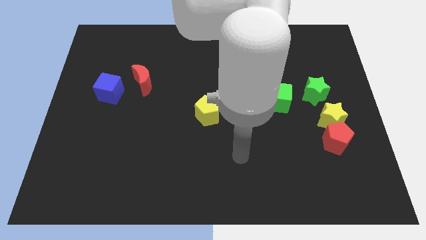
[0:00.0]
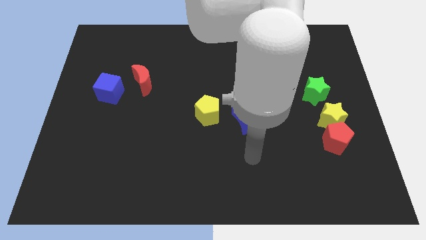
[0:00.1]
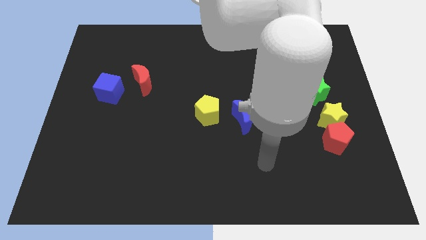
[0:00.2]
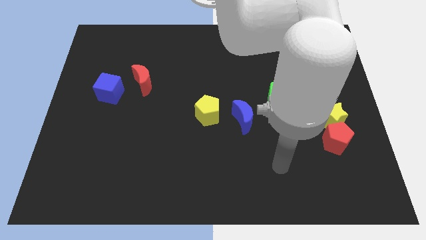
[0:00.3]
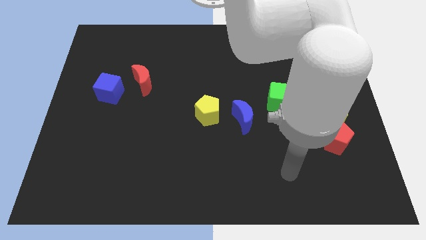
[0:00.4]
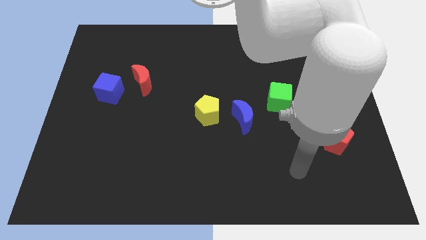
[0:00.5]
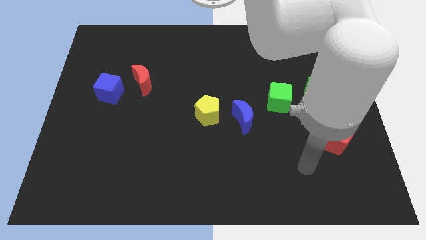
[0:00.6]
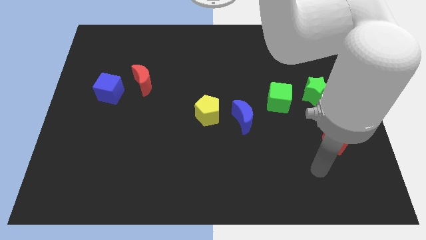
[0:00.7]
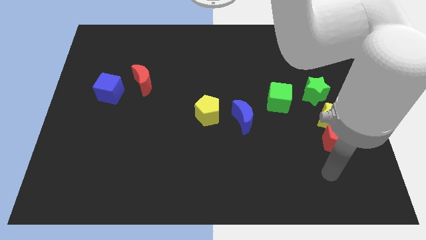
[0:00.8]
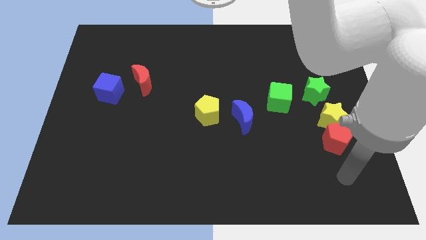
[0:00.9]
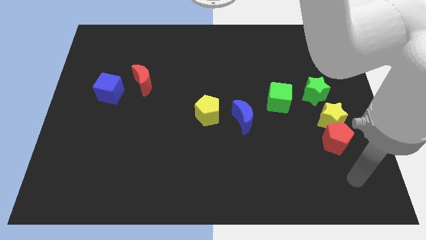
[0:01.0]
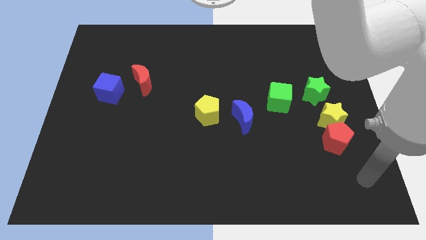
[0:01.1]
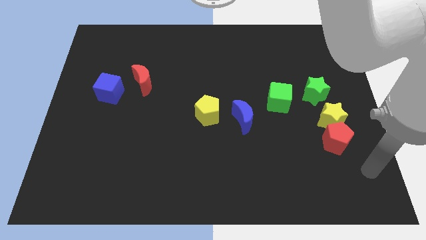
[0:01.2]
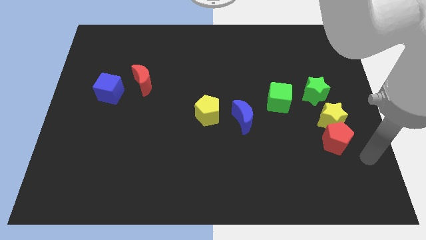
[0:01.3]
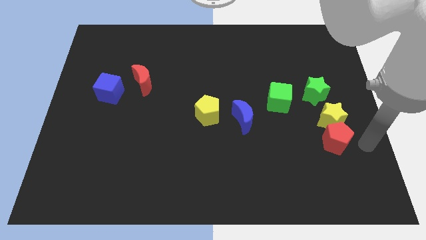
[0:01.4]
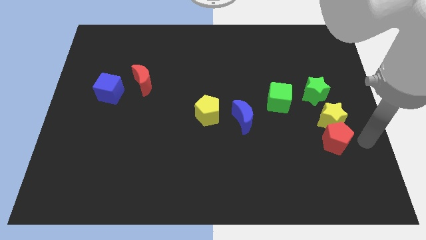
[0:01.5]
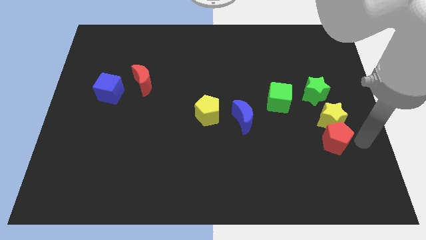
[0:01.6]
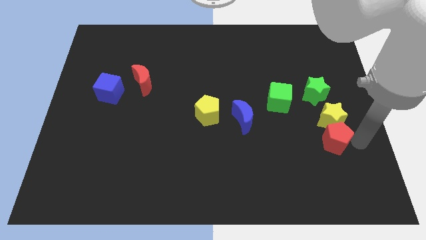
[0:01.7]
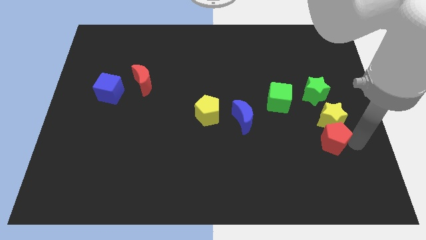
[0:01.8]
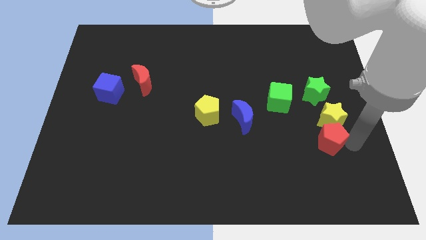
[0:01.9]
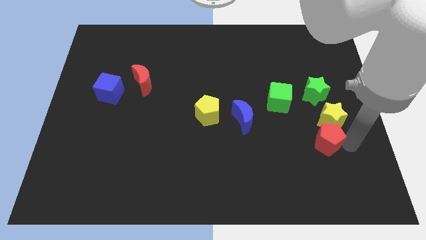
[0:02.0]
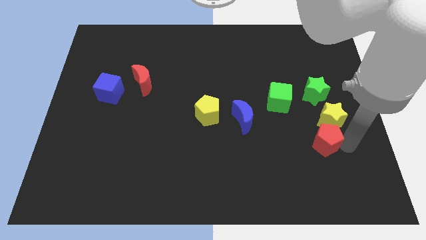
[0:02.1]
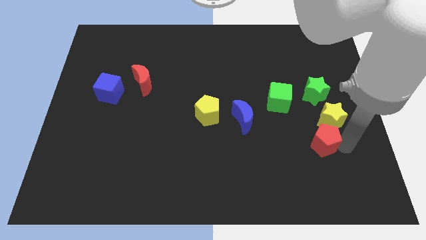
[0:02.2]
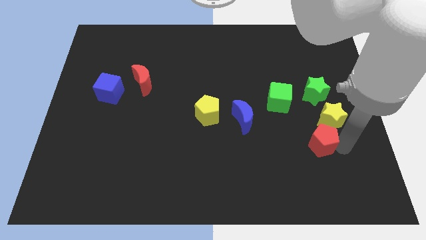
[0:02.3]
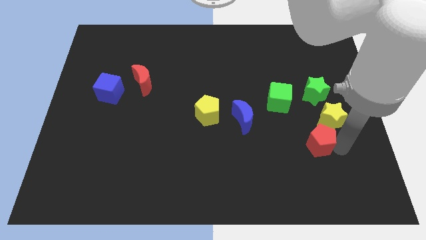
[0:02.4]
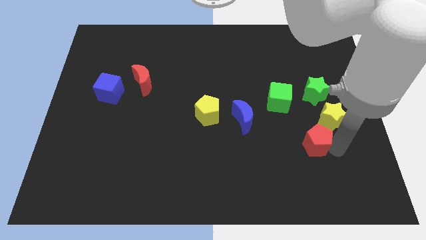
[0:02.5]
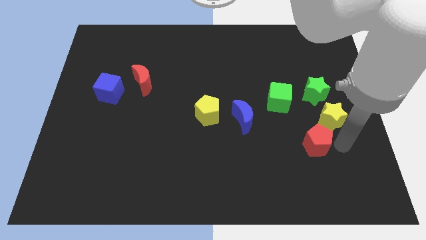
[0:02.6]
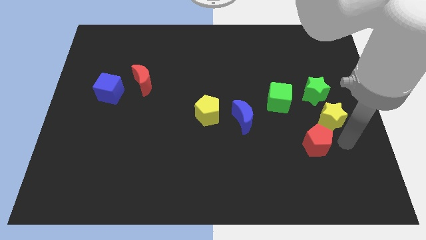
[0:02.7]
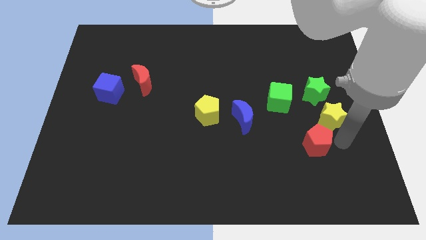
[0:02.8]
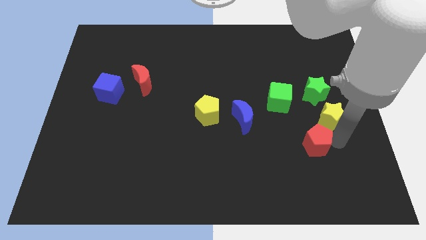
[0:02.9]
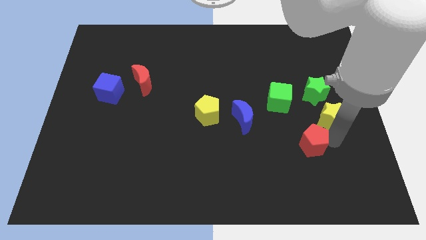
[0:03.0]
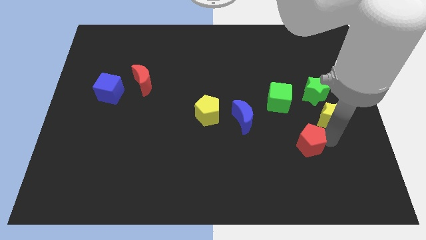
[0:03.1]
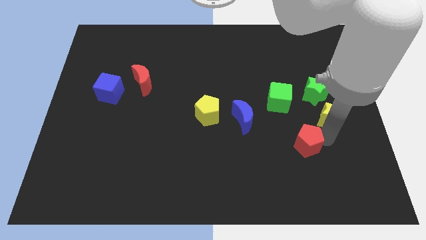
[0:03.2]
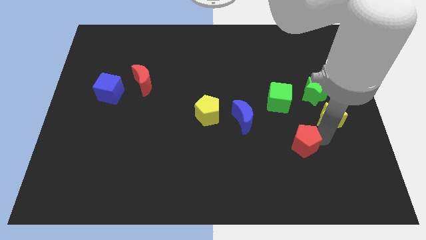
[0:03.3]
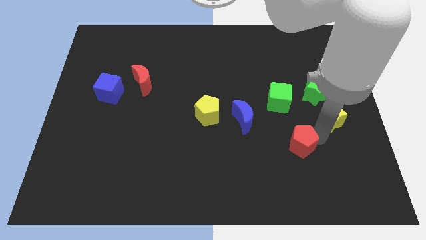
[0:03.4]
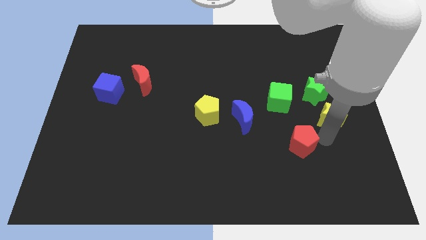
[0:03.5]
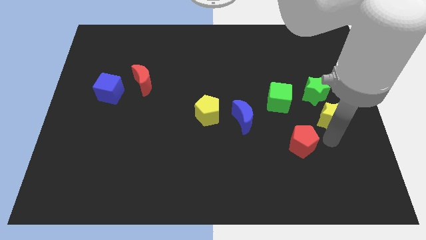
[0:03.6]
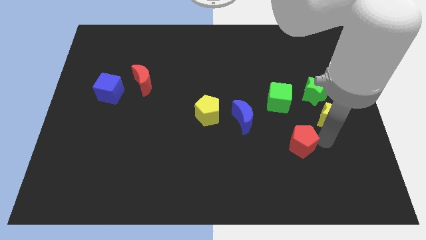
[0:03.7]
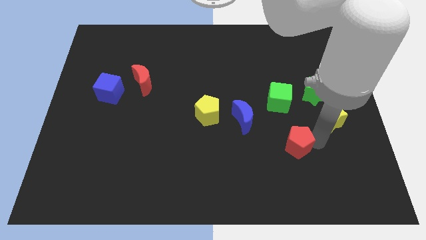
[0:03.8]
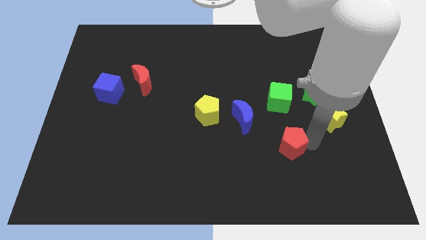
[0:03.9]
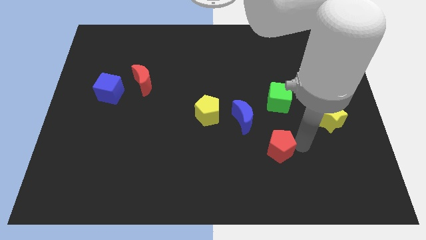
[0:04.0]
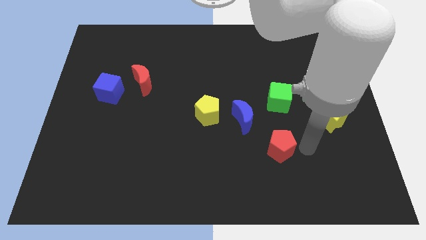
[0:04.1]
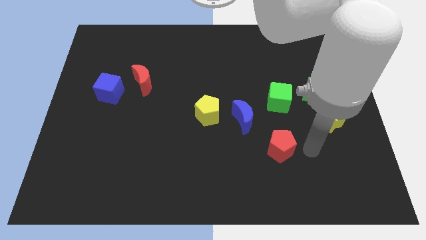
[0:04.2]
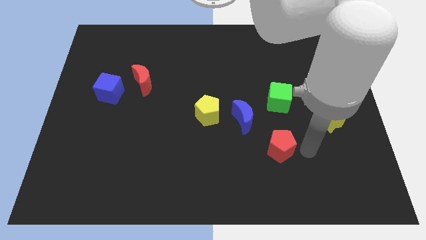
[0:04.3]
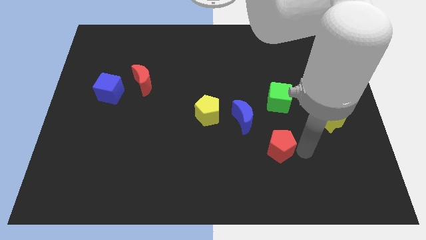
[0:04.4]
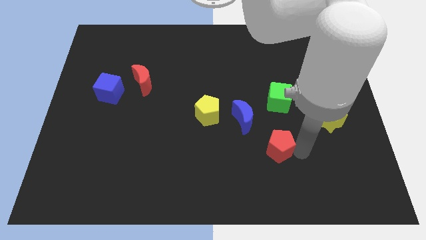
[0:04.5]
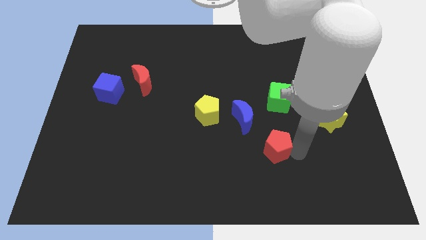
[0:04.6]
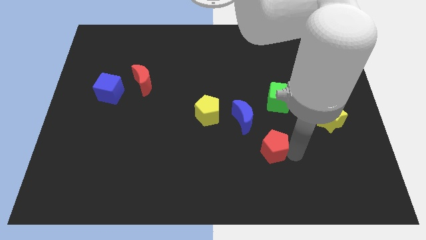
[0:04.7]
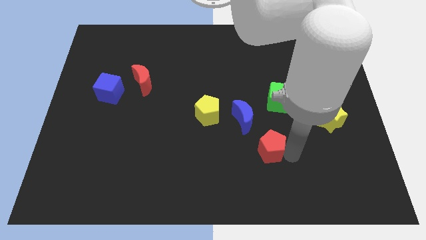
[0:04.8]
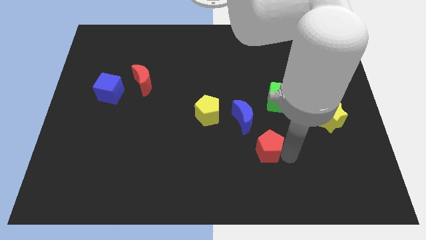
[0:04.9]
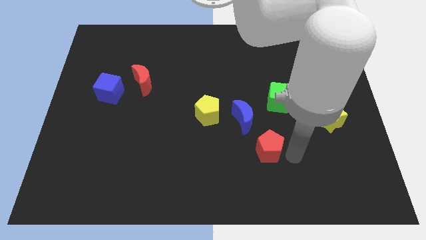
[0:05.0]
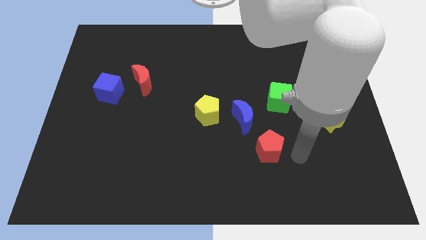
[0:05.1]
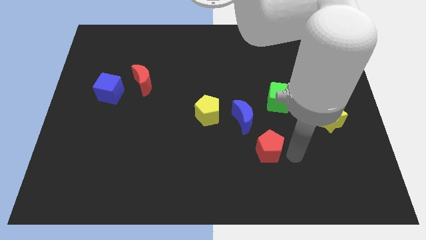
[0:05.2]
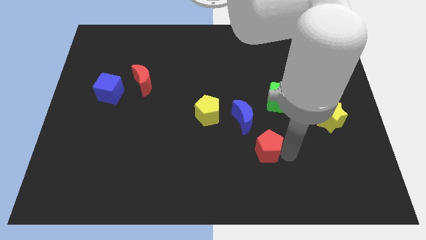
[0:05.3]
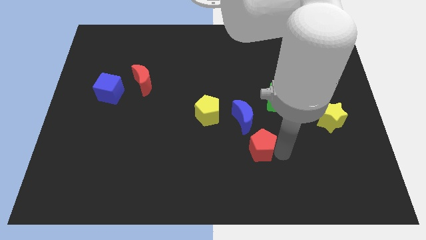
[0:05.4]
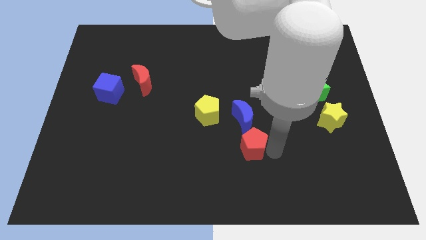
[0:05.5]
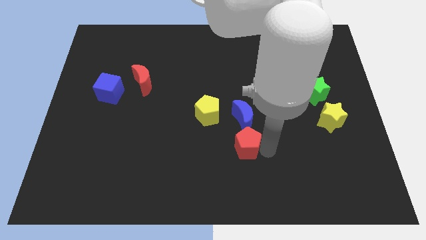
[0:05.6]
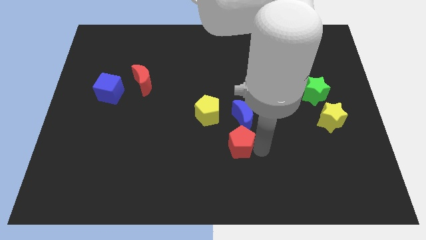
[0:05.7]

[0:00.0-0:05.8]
move the red pentagon to the left

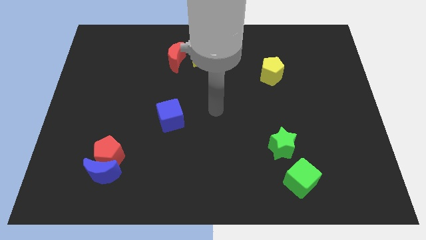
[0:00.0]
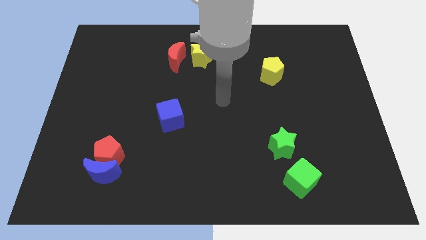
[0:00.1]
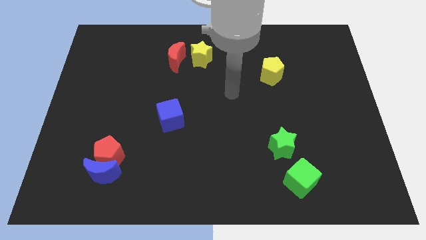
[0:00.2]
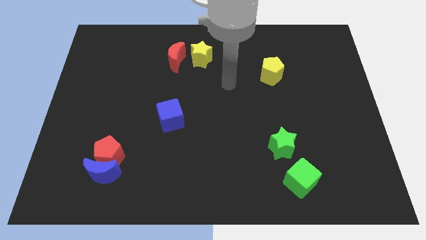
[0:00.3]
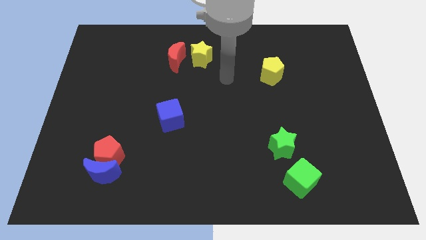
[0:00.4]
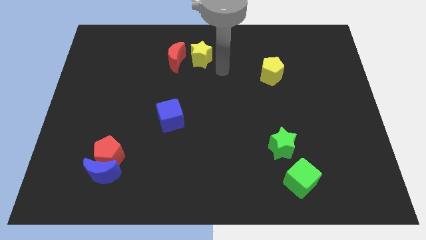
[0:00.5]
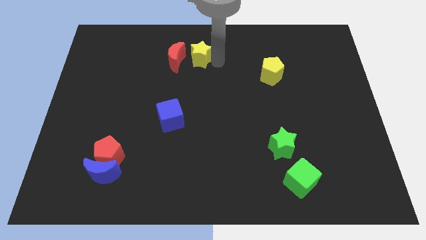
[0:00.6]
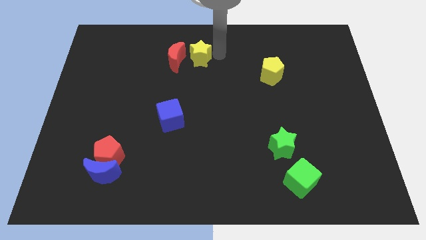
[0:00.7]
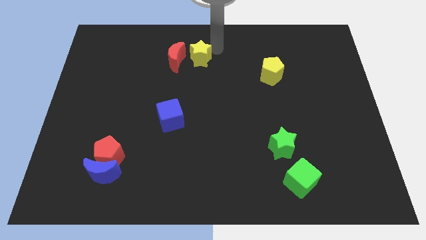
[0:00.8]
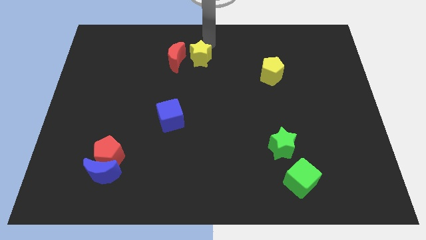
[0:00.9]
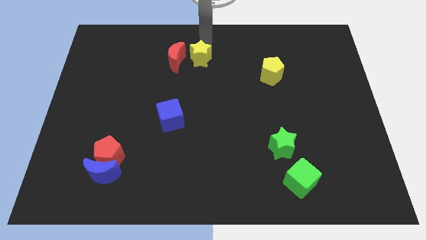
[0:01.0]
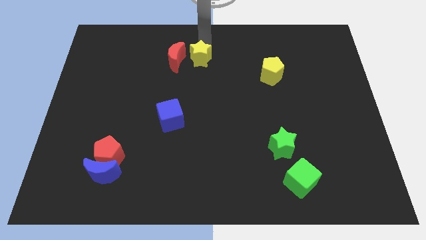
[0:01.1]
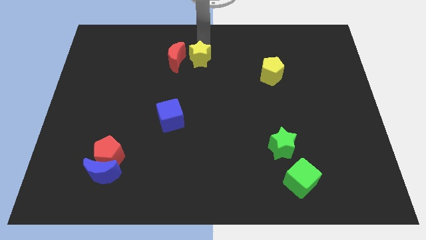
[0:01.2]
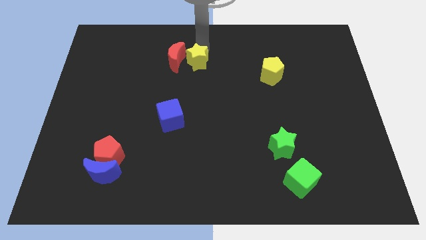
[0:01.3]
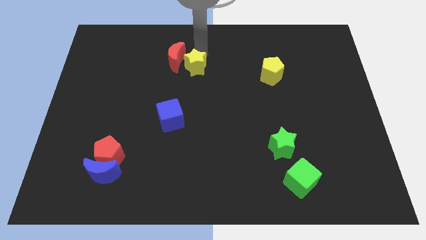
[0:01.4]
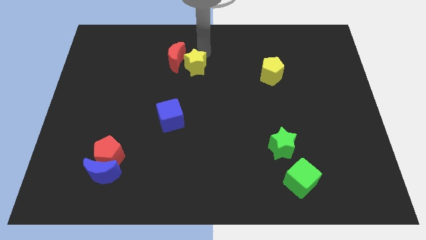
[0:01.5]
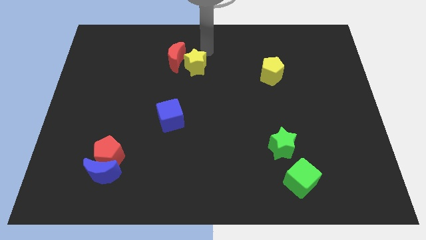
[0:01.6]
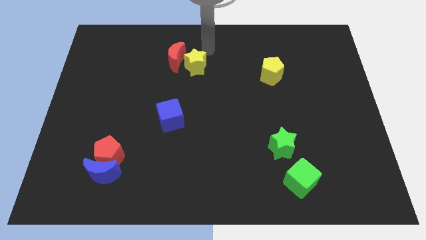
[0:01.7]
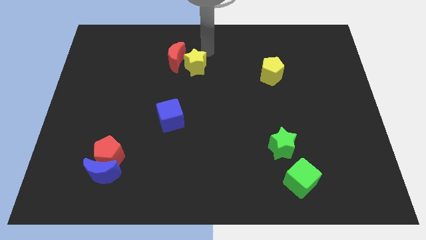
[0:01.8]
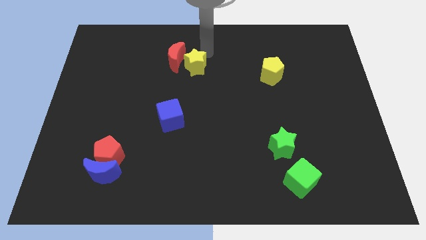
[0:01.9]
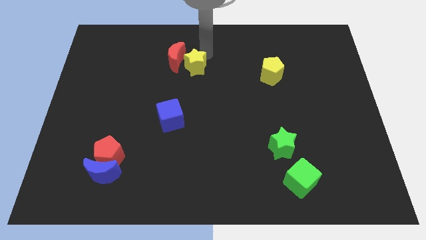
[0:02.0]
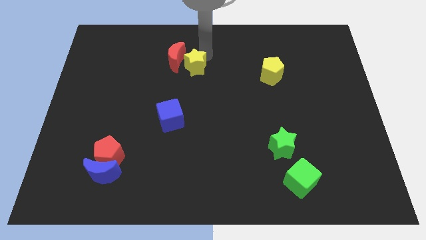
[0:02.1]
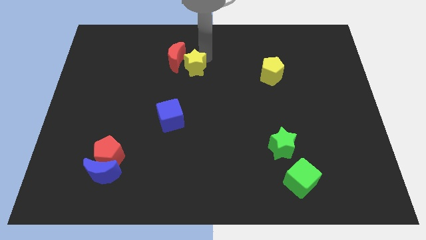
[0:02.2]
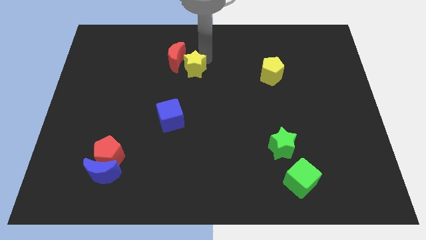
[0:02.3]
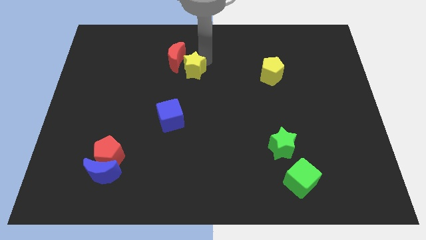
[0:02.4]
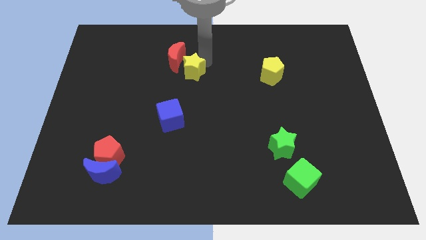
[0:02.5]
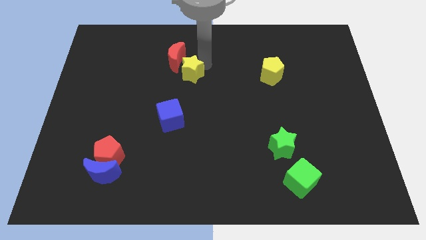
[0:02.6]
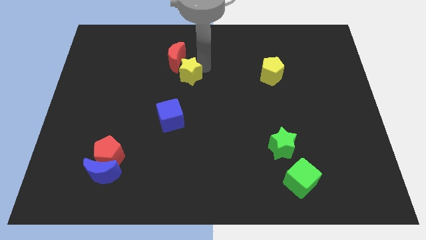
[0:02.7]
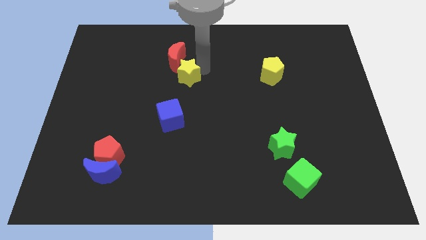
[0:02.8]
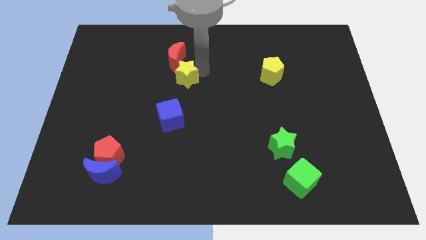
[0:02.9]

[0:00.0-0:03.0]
slightly slide the yellow star downwards and then left
